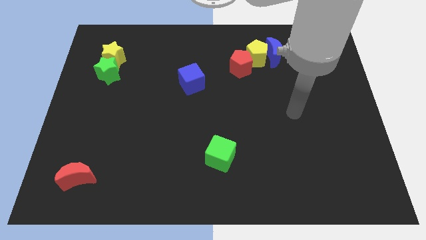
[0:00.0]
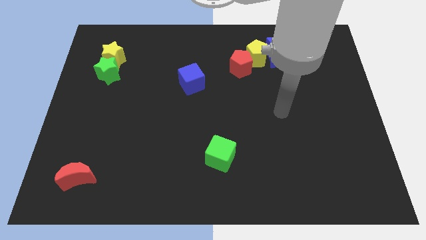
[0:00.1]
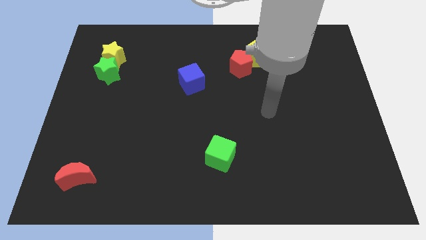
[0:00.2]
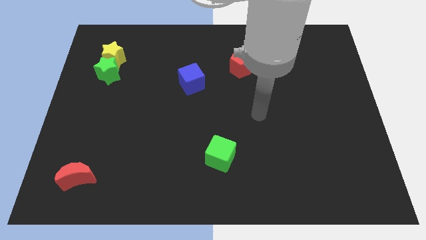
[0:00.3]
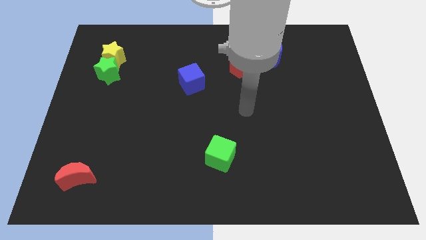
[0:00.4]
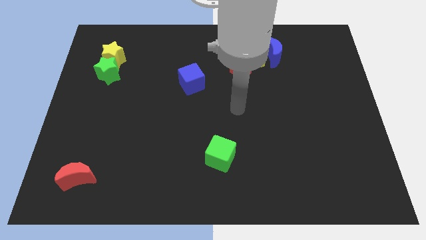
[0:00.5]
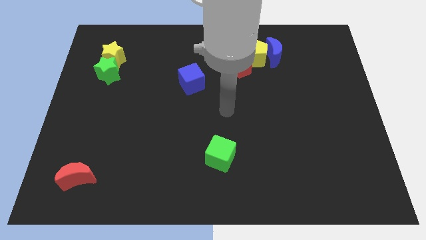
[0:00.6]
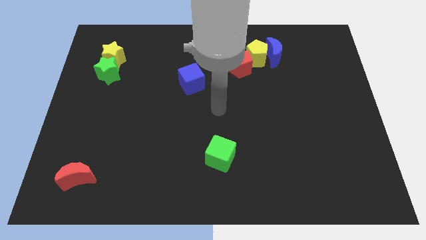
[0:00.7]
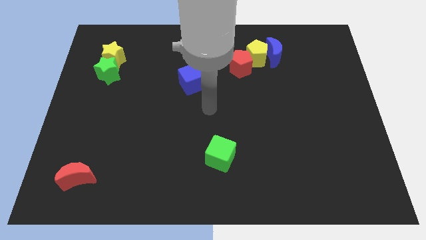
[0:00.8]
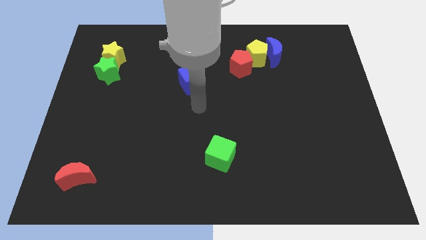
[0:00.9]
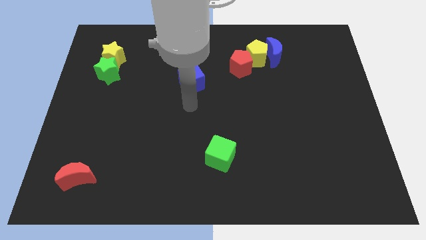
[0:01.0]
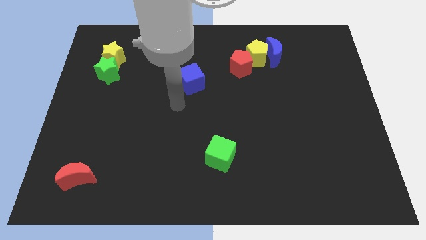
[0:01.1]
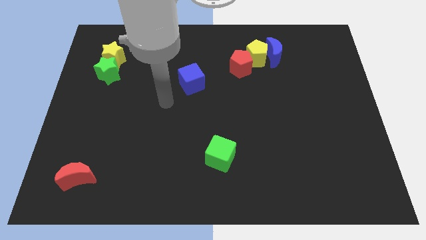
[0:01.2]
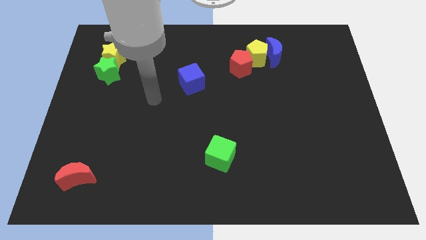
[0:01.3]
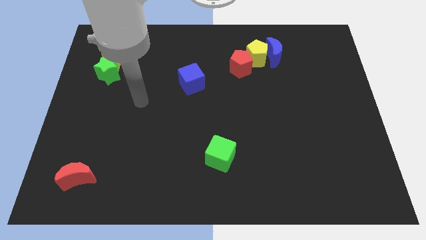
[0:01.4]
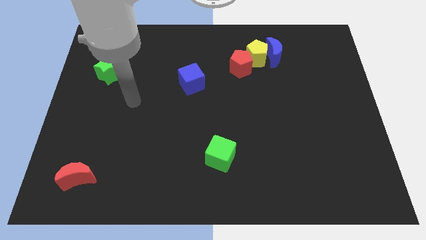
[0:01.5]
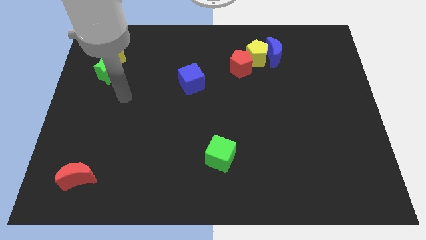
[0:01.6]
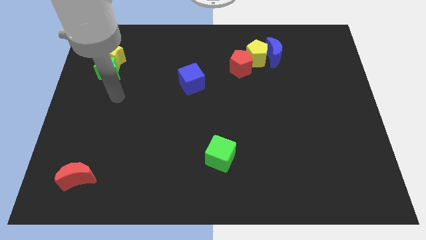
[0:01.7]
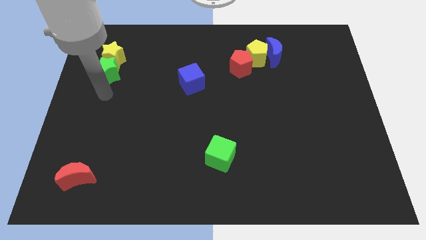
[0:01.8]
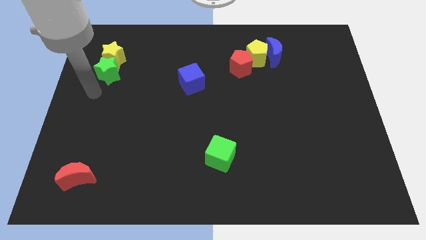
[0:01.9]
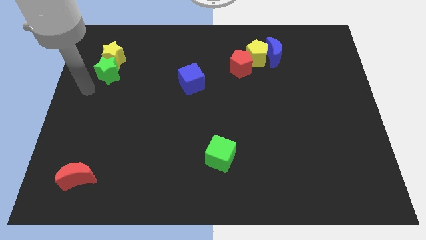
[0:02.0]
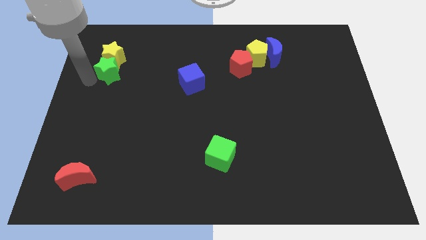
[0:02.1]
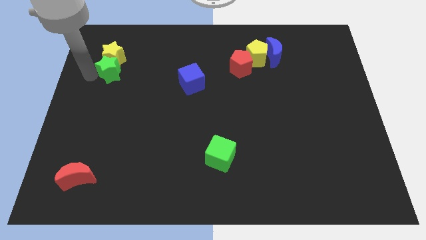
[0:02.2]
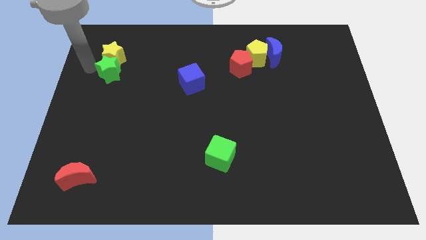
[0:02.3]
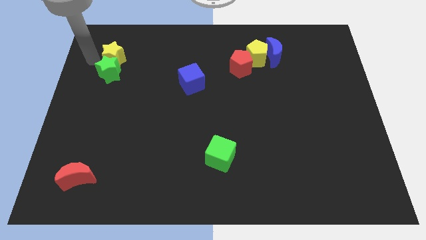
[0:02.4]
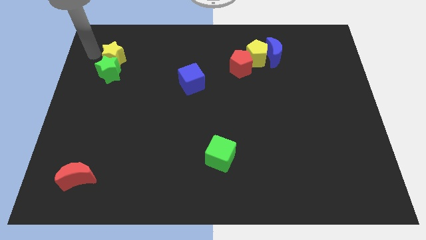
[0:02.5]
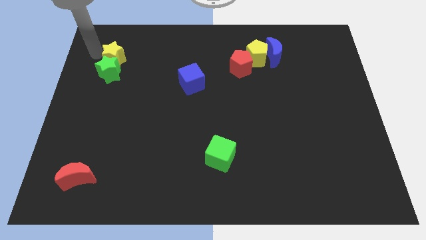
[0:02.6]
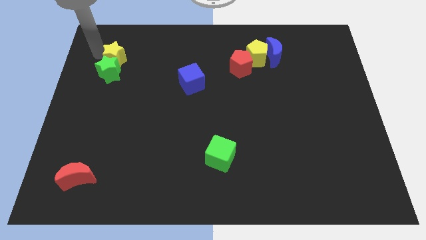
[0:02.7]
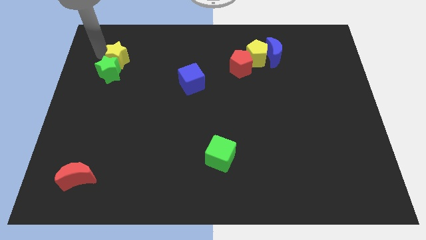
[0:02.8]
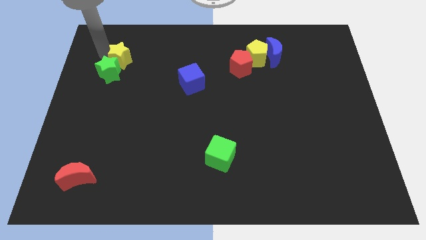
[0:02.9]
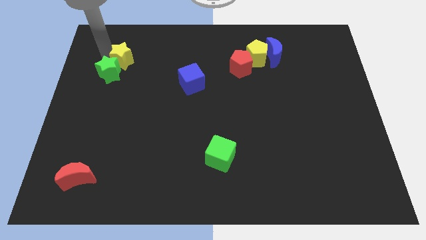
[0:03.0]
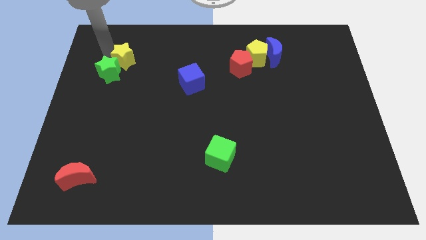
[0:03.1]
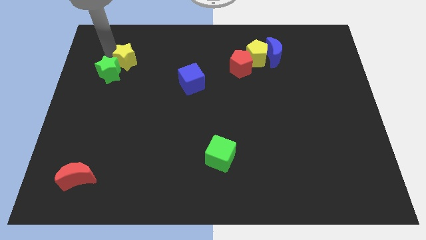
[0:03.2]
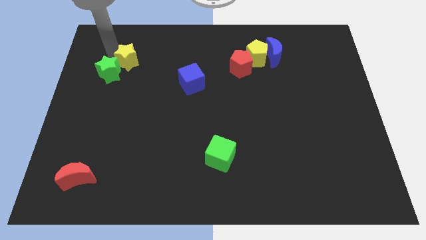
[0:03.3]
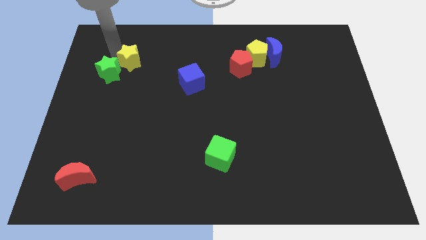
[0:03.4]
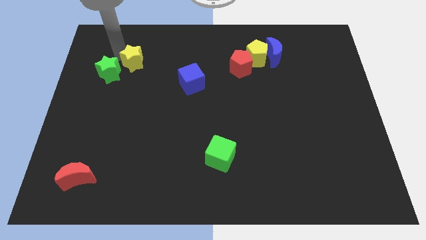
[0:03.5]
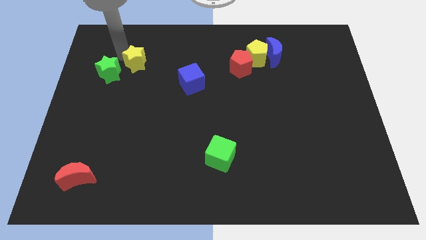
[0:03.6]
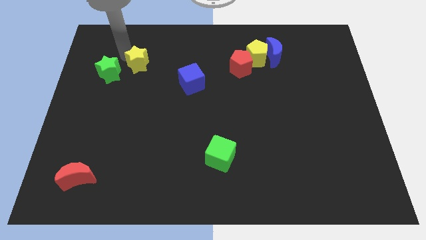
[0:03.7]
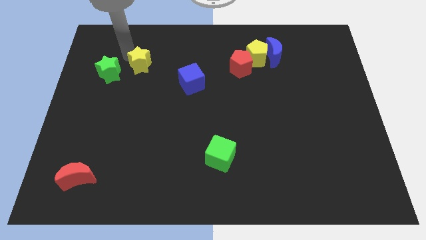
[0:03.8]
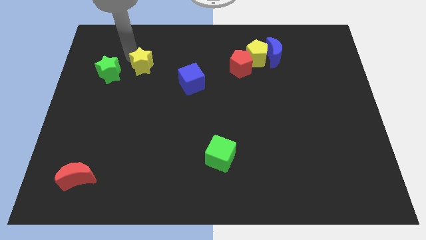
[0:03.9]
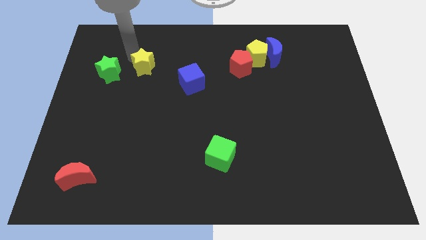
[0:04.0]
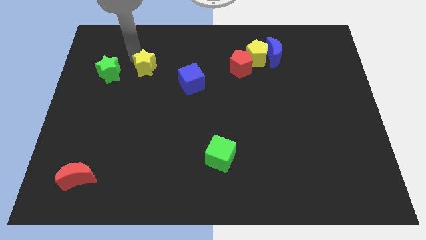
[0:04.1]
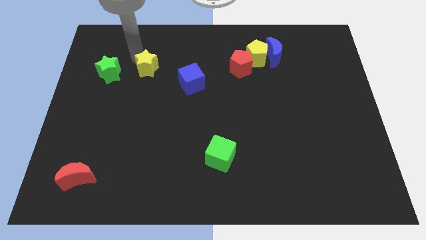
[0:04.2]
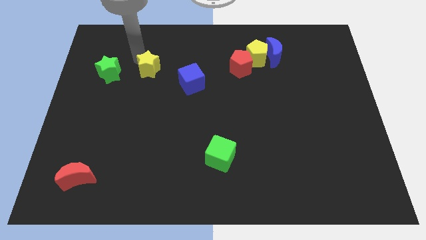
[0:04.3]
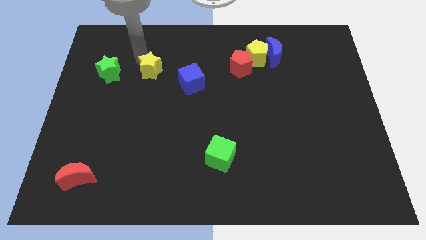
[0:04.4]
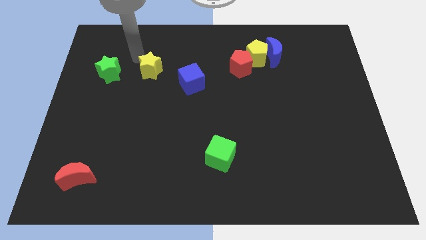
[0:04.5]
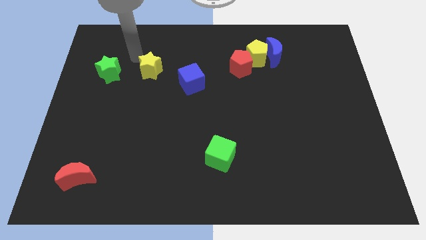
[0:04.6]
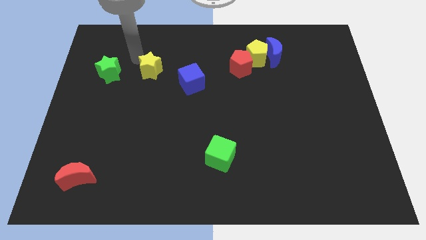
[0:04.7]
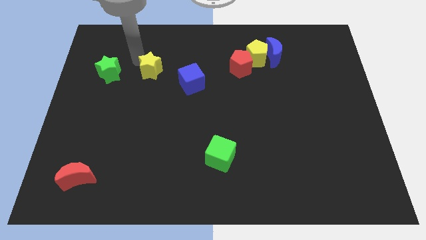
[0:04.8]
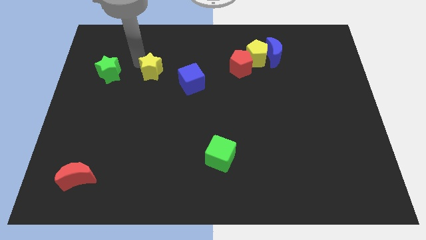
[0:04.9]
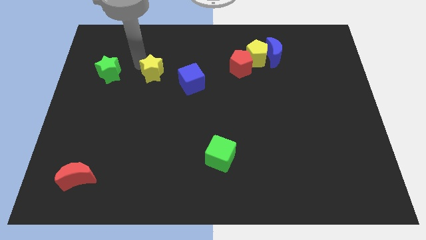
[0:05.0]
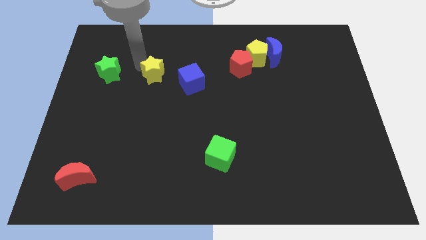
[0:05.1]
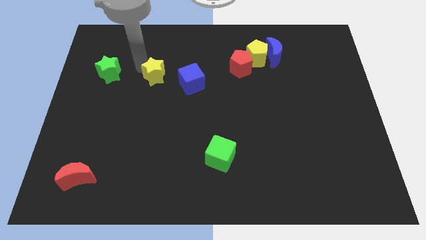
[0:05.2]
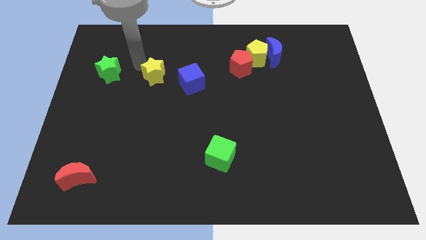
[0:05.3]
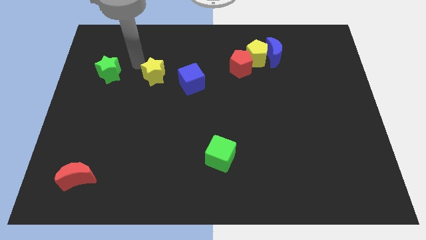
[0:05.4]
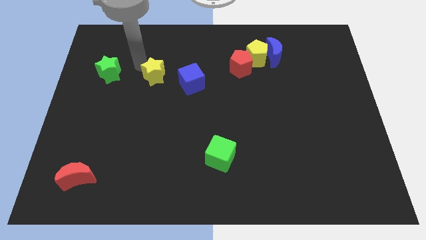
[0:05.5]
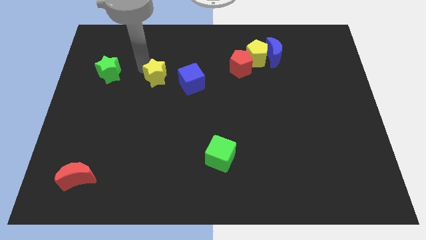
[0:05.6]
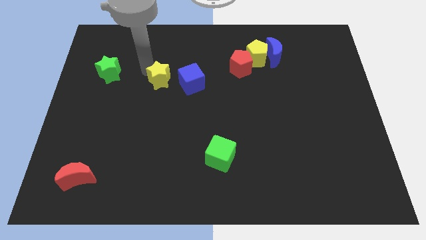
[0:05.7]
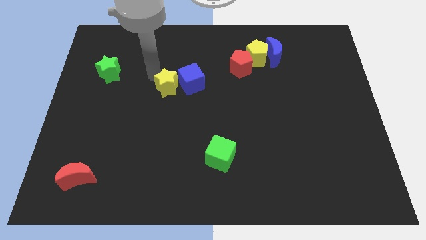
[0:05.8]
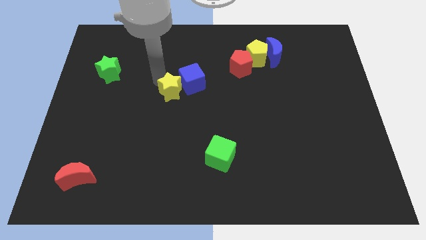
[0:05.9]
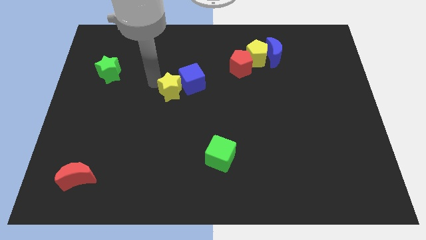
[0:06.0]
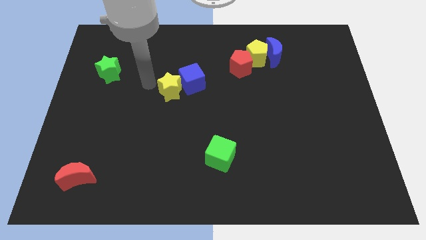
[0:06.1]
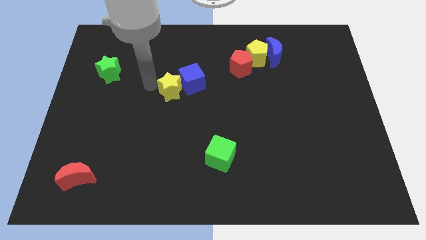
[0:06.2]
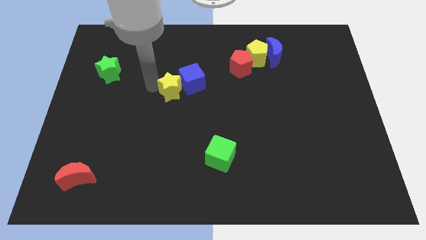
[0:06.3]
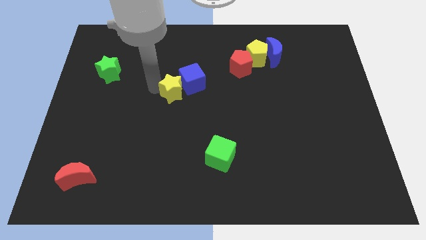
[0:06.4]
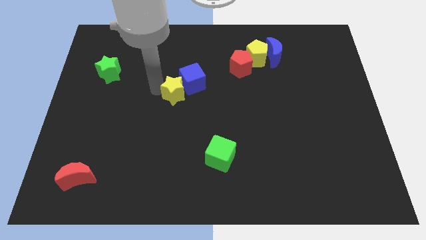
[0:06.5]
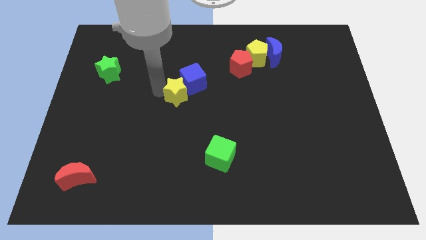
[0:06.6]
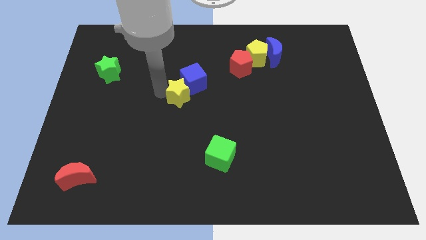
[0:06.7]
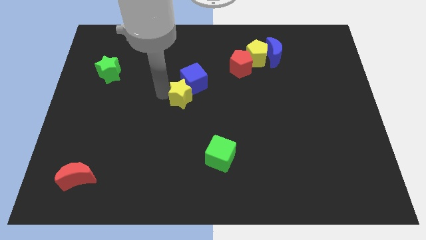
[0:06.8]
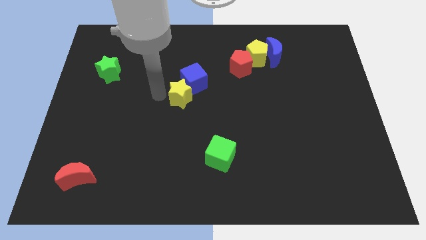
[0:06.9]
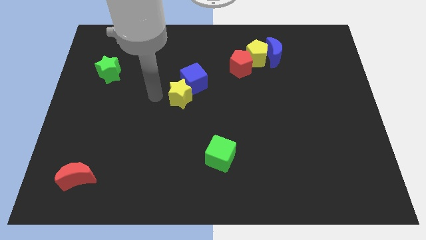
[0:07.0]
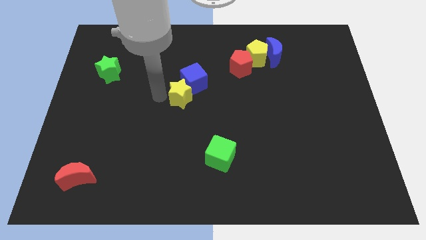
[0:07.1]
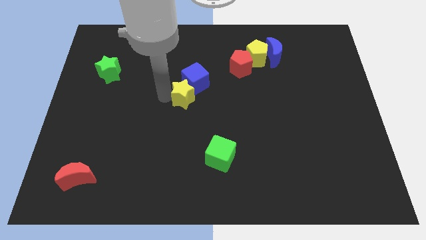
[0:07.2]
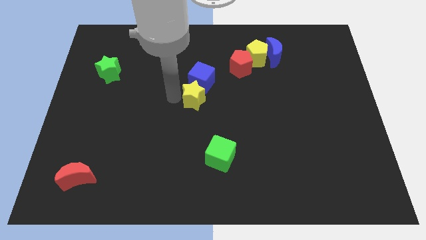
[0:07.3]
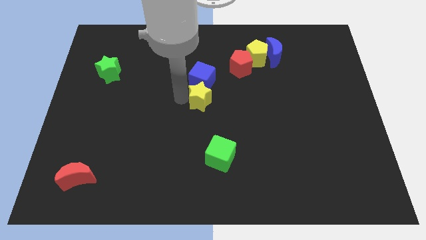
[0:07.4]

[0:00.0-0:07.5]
put the yellow star to the bottom right of the blue cube

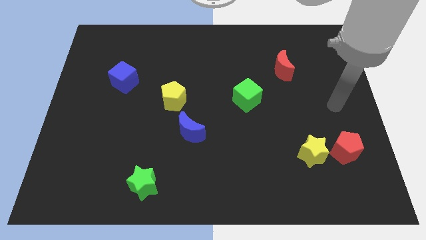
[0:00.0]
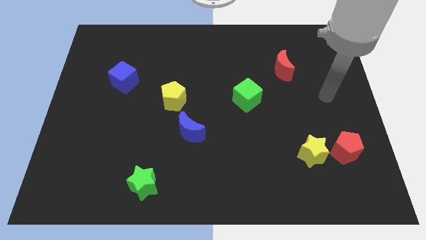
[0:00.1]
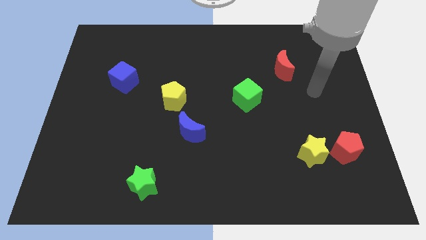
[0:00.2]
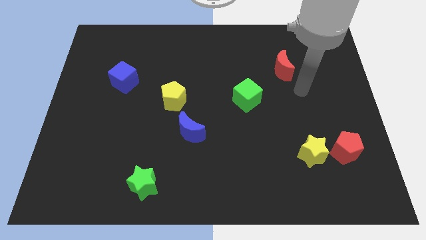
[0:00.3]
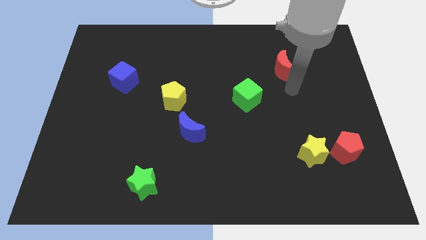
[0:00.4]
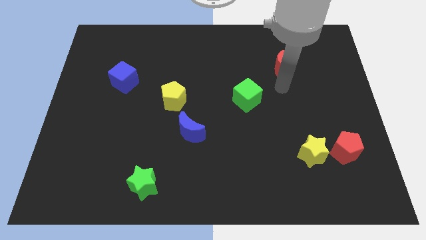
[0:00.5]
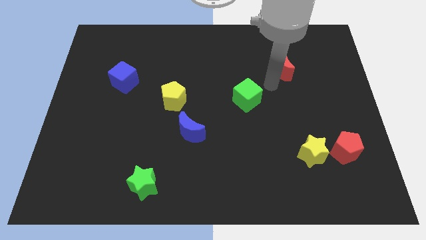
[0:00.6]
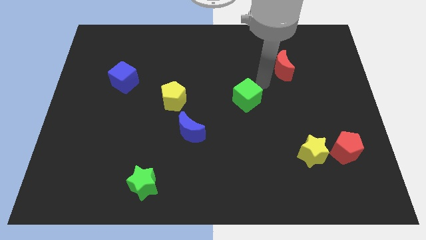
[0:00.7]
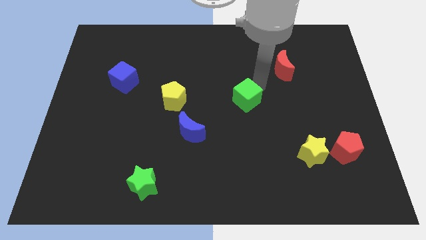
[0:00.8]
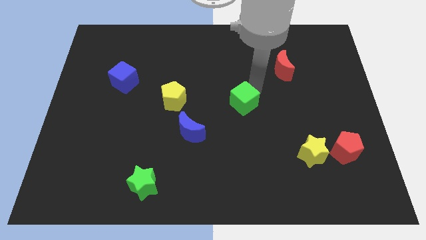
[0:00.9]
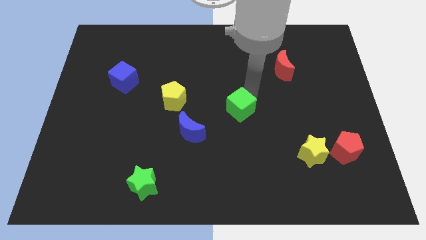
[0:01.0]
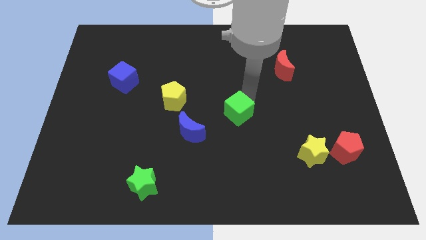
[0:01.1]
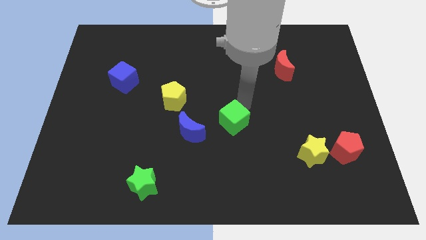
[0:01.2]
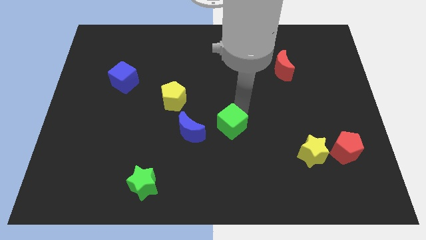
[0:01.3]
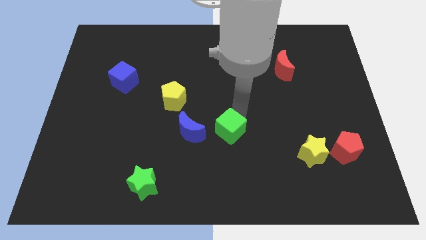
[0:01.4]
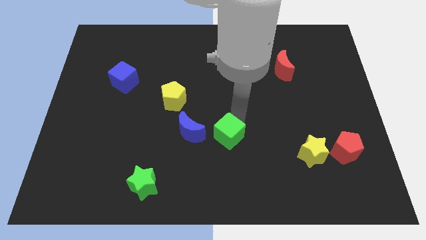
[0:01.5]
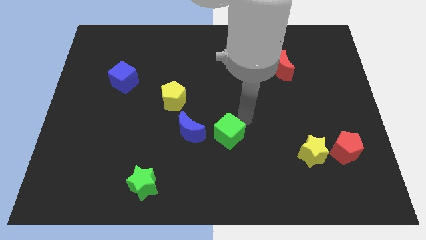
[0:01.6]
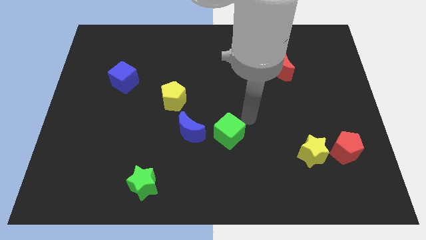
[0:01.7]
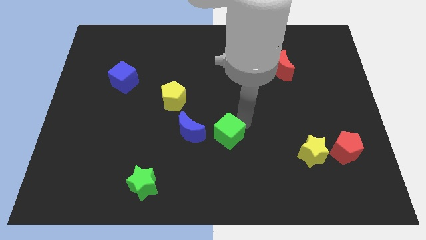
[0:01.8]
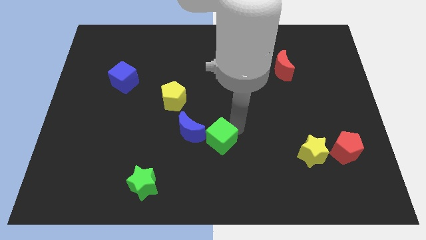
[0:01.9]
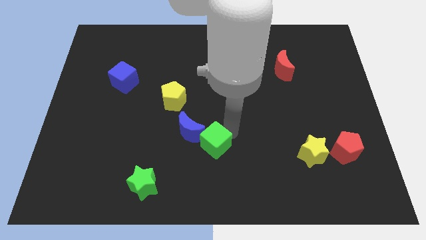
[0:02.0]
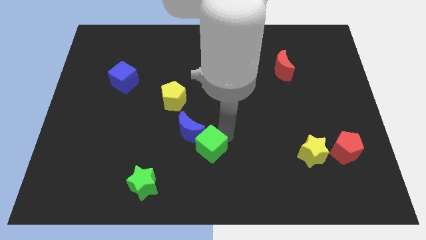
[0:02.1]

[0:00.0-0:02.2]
push the green cube below the blue moon
